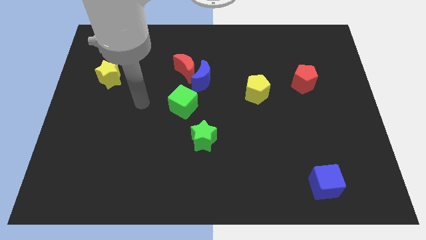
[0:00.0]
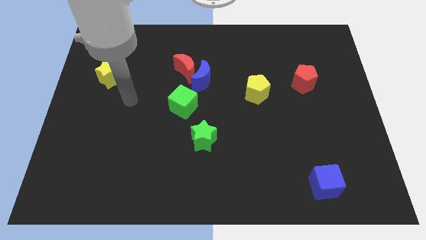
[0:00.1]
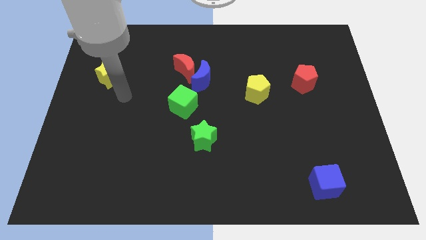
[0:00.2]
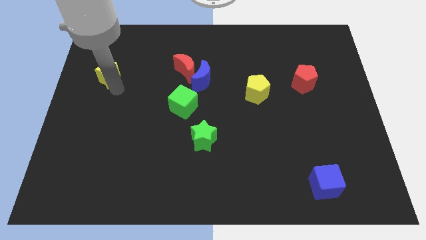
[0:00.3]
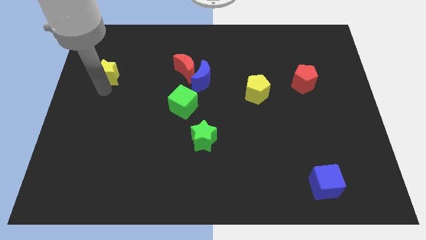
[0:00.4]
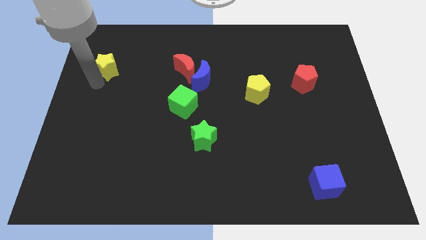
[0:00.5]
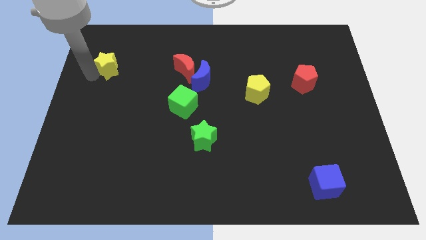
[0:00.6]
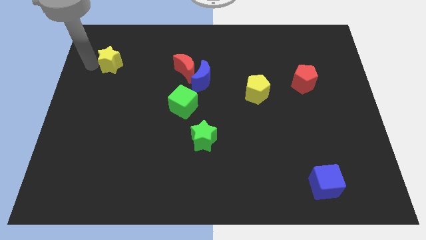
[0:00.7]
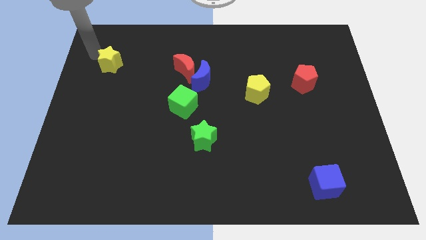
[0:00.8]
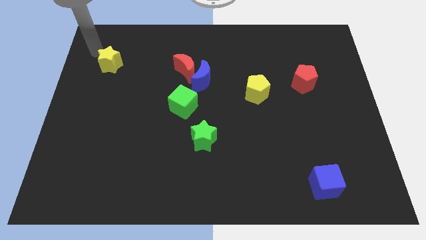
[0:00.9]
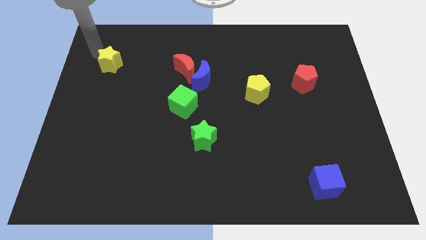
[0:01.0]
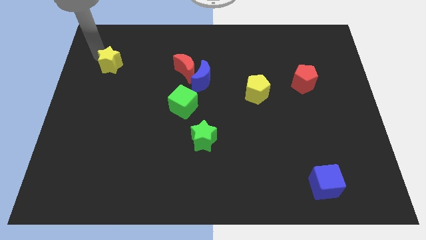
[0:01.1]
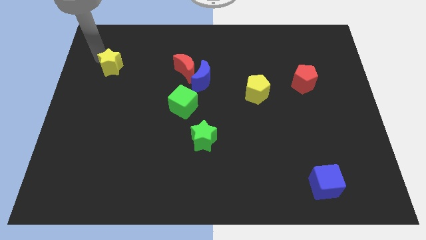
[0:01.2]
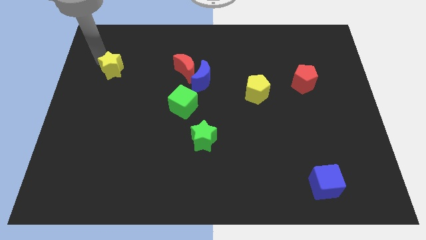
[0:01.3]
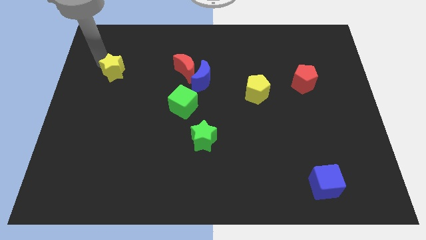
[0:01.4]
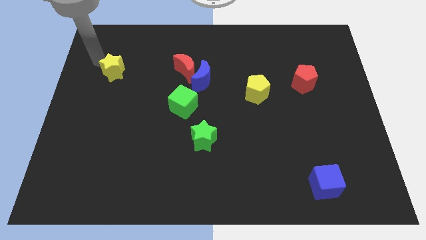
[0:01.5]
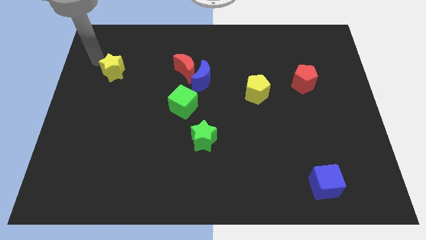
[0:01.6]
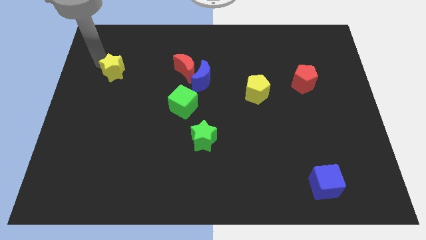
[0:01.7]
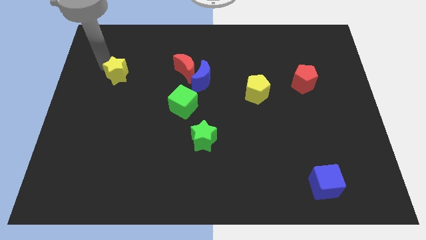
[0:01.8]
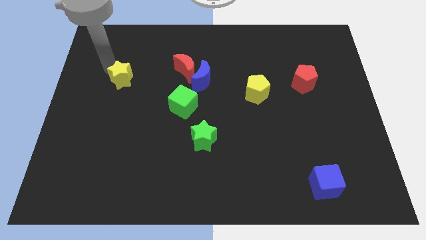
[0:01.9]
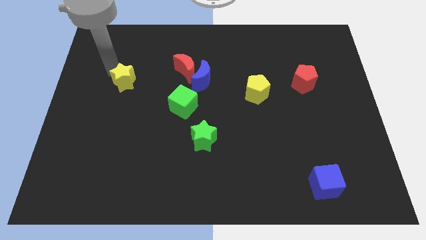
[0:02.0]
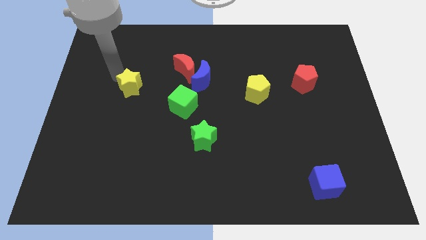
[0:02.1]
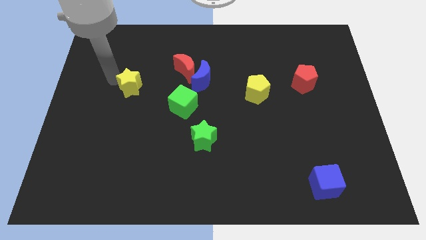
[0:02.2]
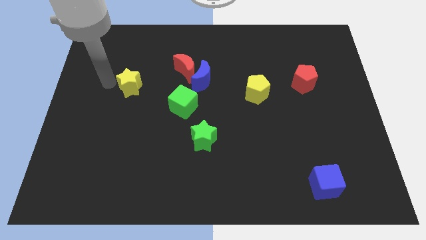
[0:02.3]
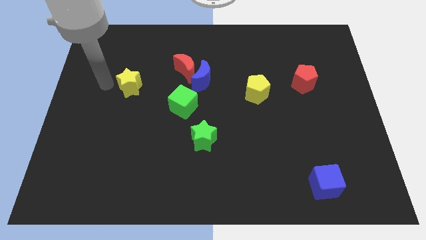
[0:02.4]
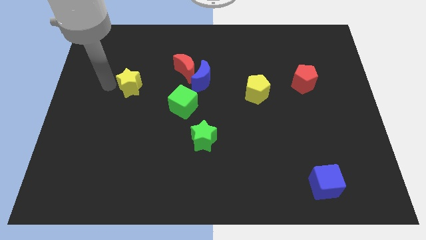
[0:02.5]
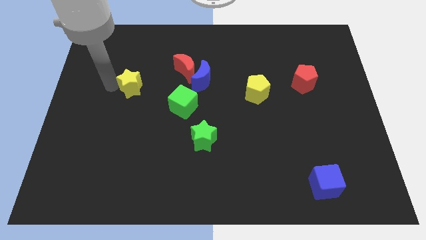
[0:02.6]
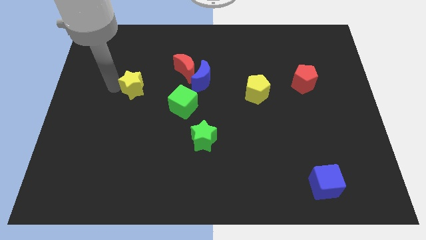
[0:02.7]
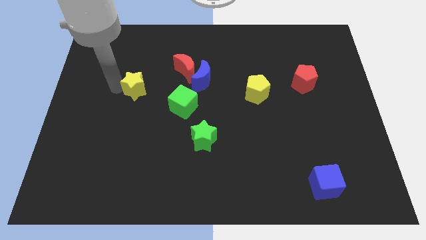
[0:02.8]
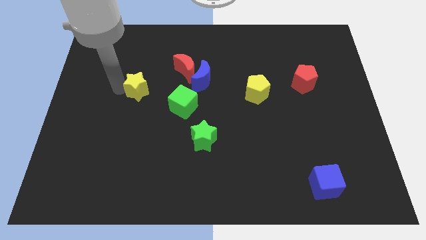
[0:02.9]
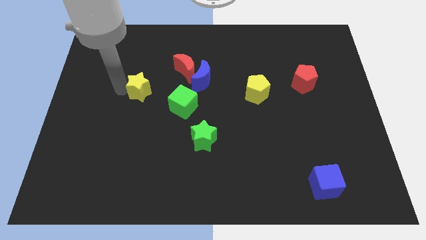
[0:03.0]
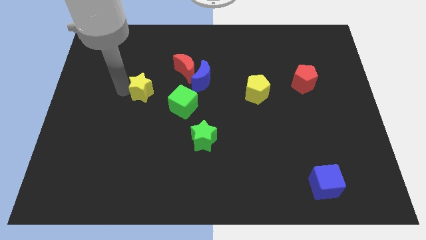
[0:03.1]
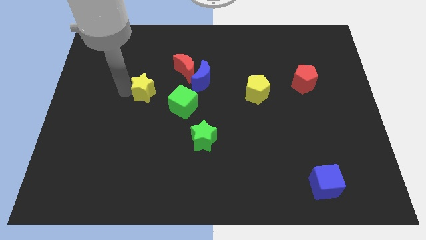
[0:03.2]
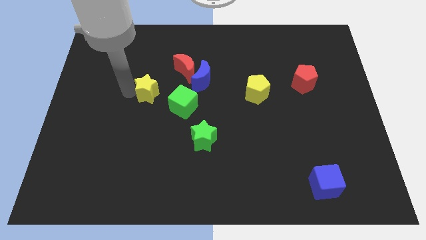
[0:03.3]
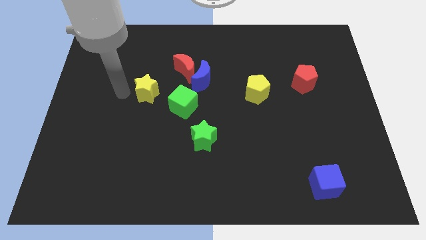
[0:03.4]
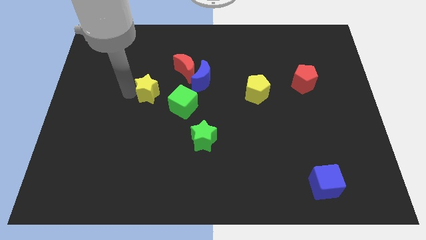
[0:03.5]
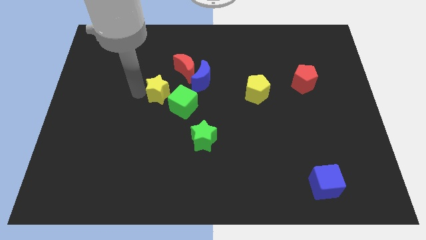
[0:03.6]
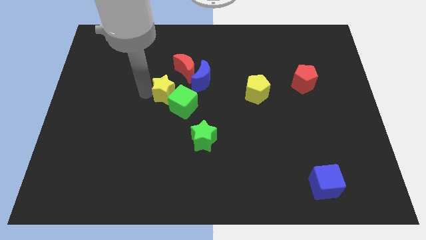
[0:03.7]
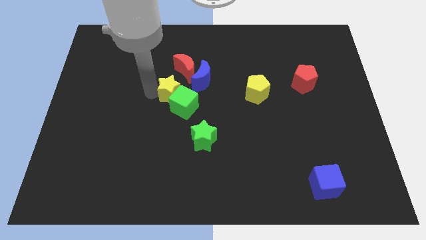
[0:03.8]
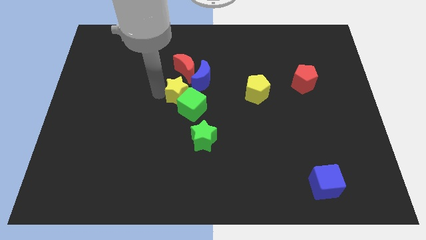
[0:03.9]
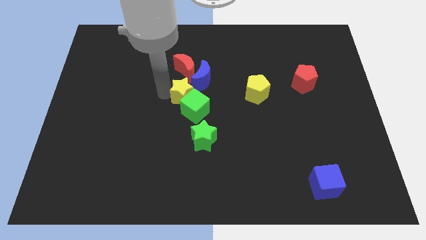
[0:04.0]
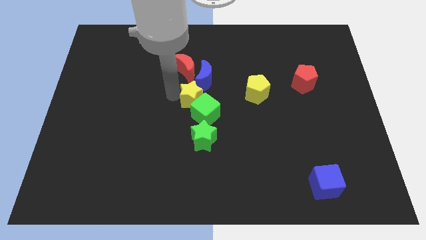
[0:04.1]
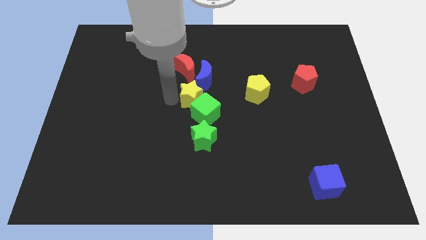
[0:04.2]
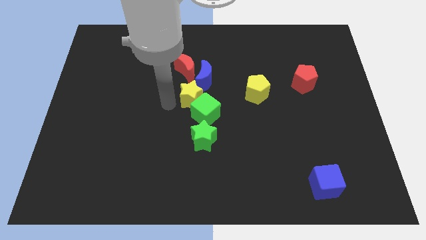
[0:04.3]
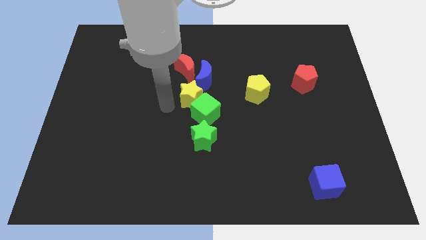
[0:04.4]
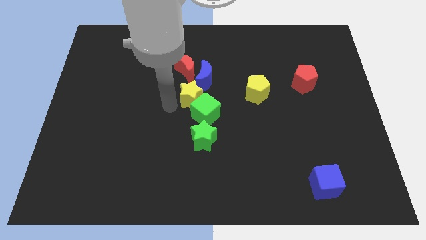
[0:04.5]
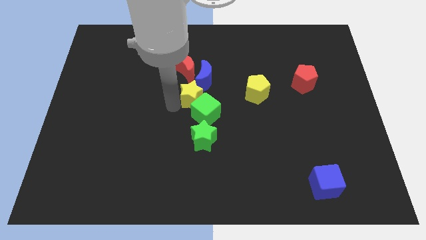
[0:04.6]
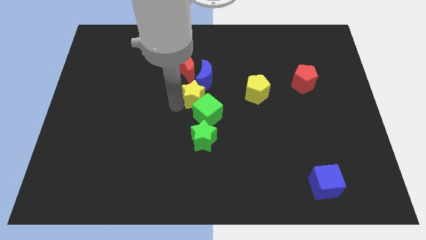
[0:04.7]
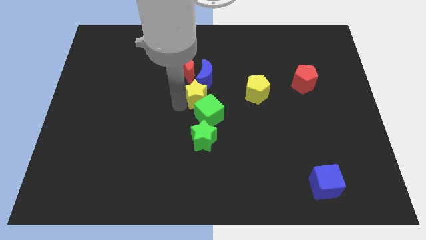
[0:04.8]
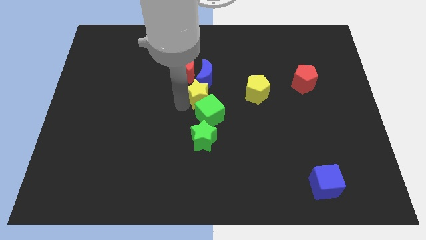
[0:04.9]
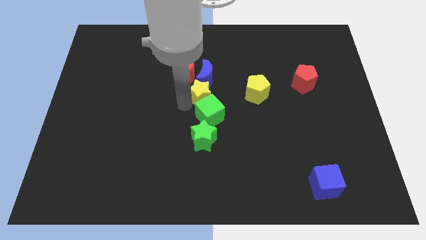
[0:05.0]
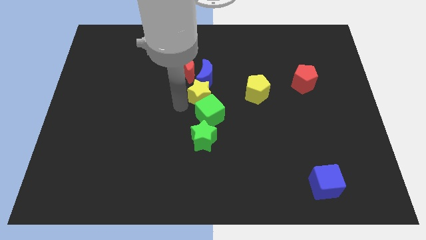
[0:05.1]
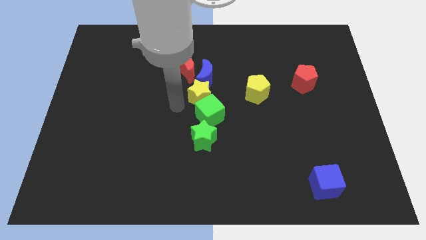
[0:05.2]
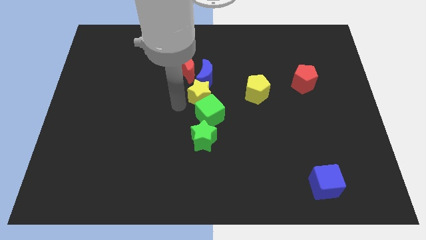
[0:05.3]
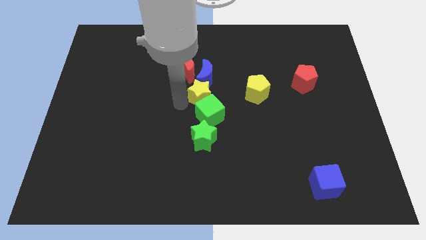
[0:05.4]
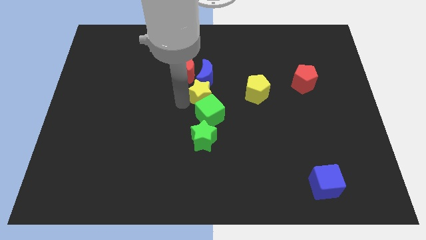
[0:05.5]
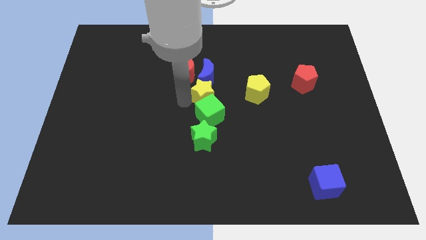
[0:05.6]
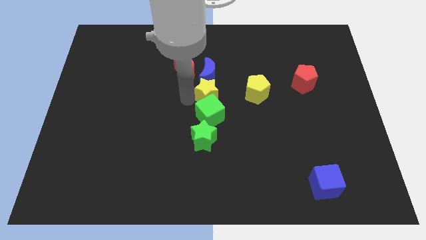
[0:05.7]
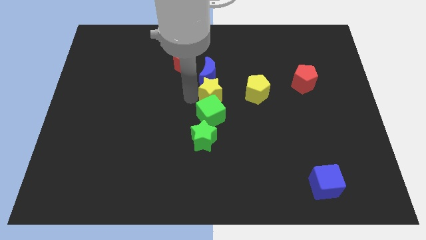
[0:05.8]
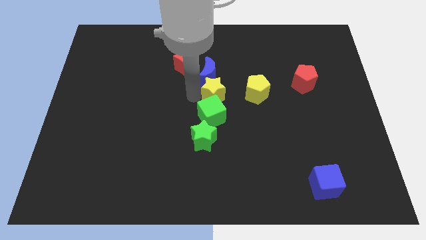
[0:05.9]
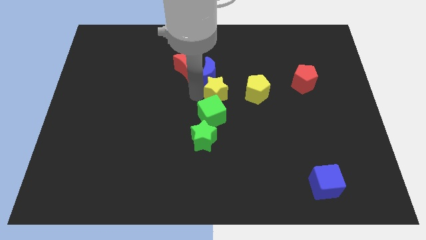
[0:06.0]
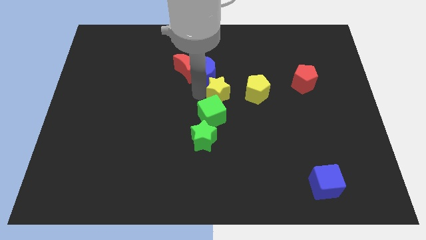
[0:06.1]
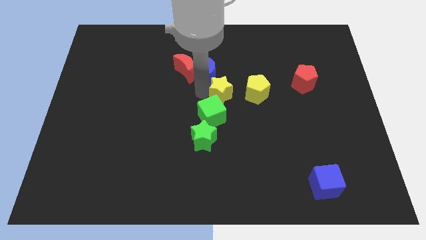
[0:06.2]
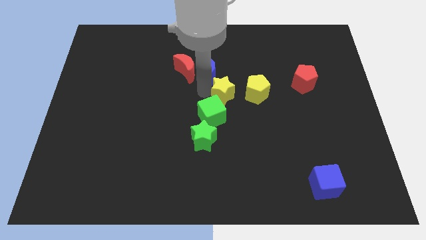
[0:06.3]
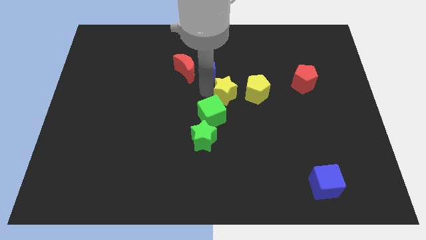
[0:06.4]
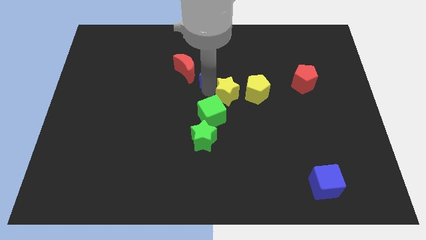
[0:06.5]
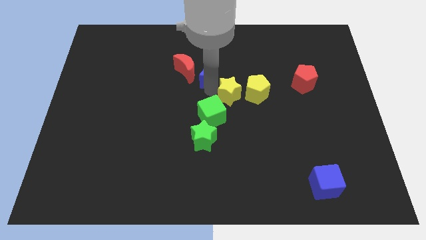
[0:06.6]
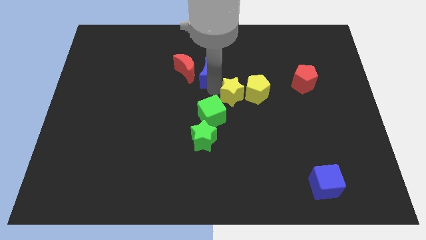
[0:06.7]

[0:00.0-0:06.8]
push the yellow star towards the yellow pentagon

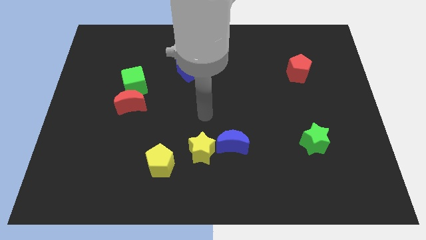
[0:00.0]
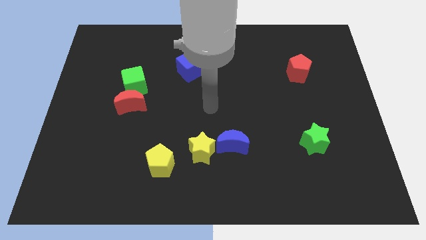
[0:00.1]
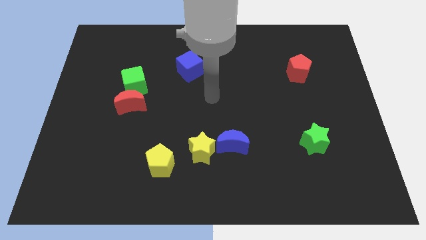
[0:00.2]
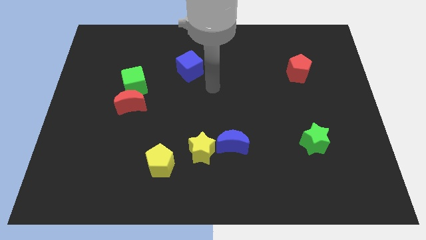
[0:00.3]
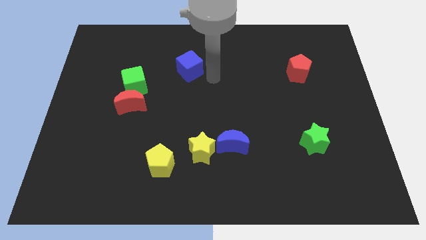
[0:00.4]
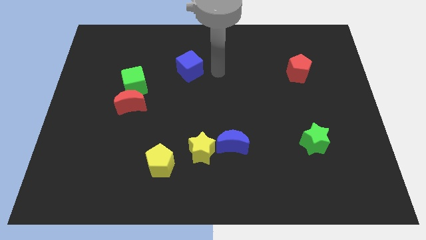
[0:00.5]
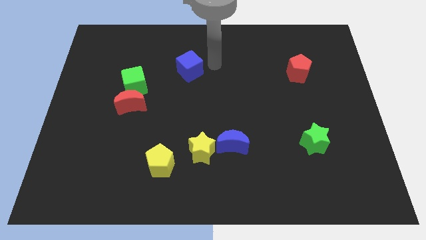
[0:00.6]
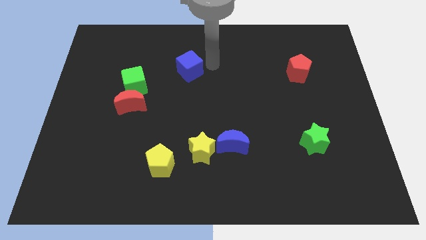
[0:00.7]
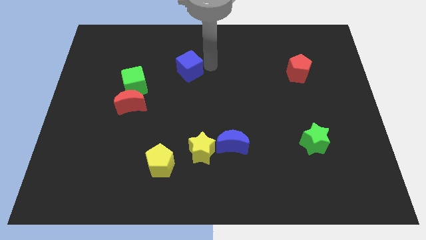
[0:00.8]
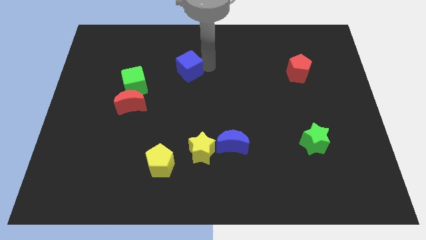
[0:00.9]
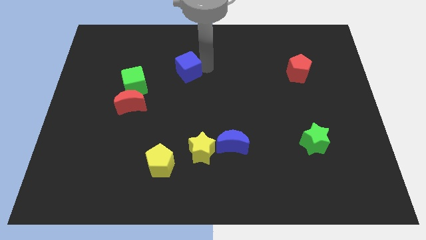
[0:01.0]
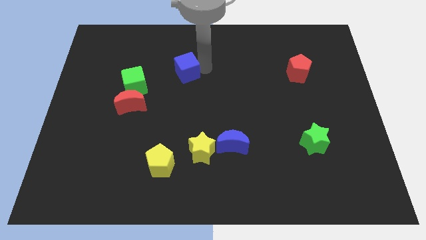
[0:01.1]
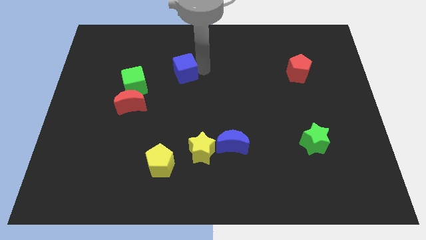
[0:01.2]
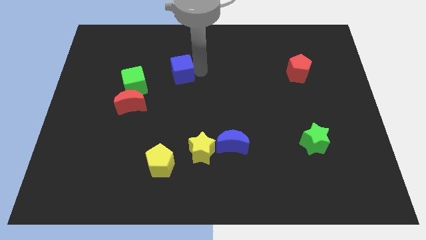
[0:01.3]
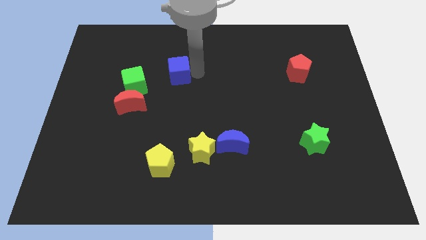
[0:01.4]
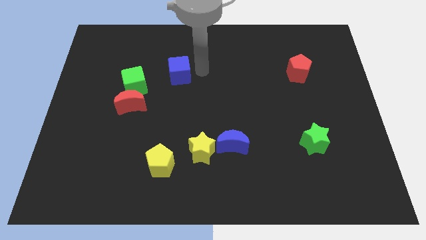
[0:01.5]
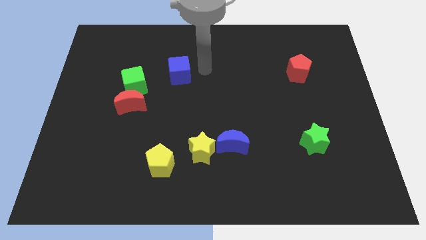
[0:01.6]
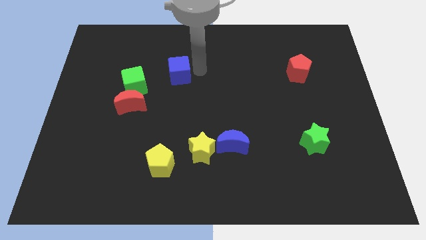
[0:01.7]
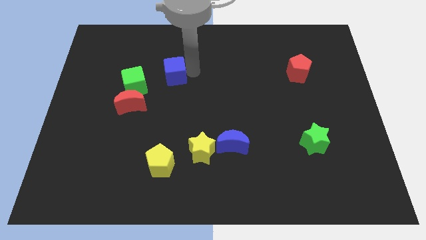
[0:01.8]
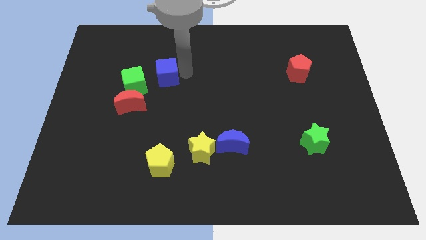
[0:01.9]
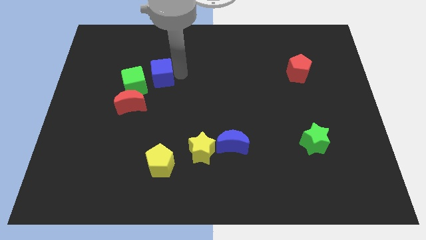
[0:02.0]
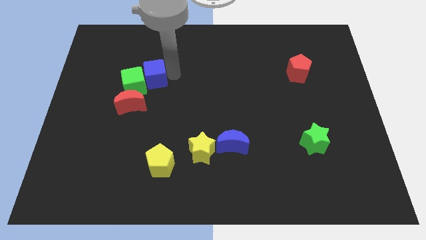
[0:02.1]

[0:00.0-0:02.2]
push the blue cube to the green cube
